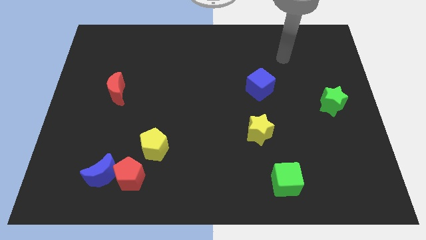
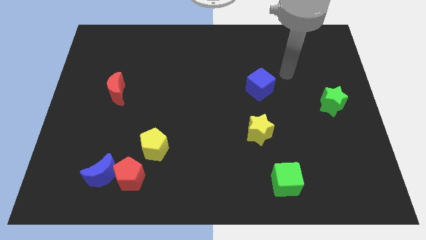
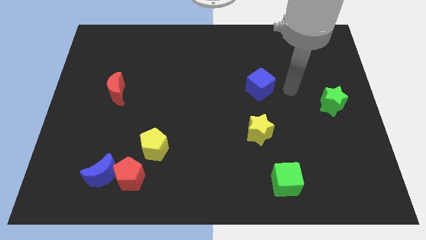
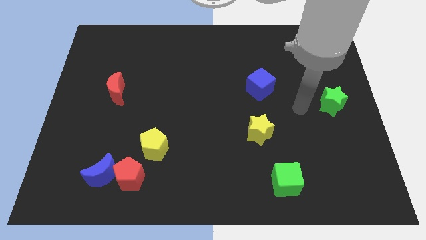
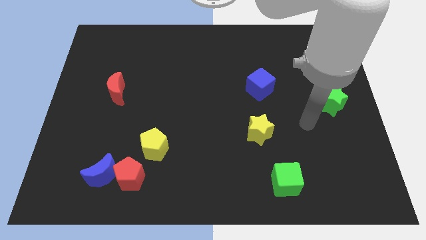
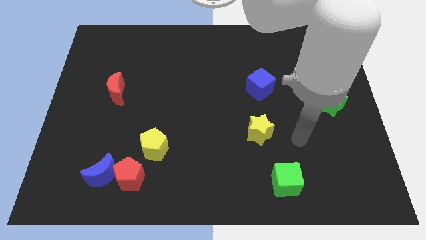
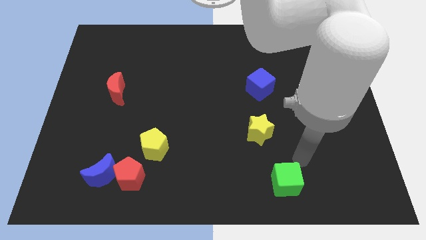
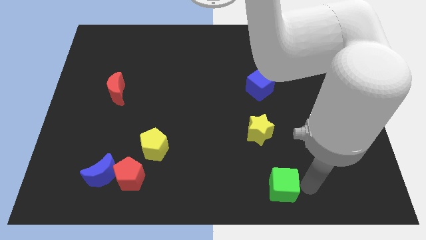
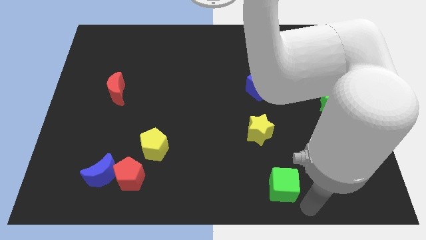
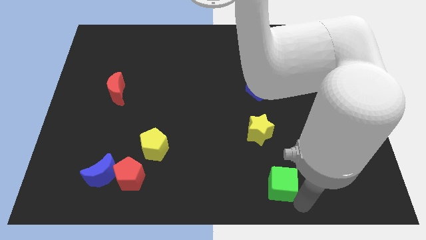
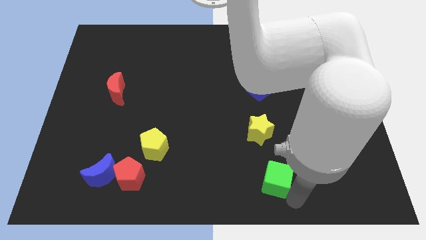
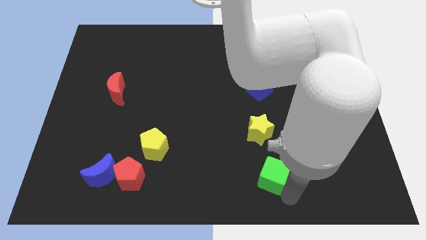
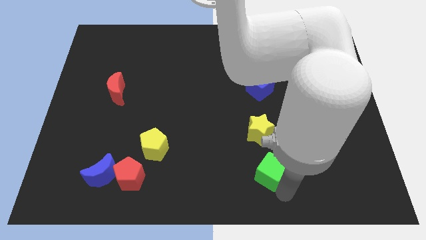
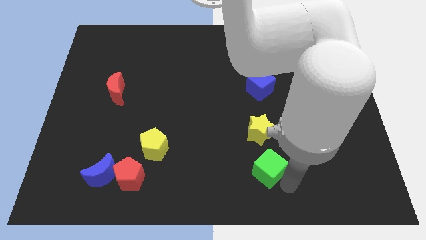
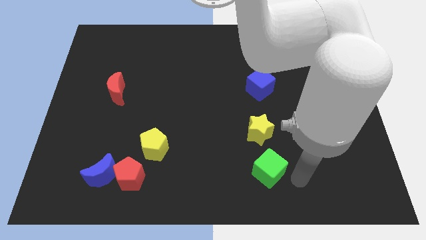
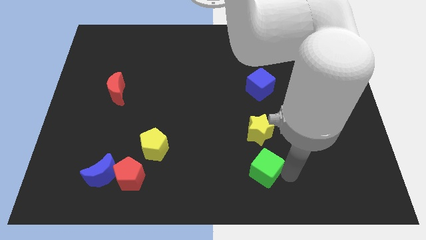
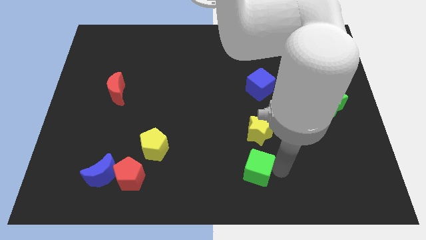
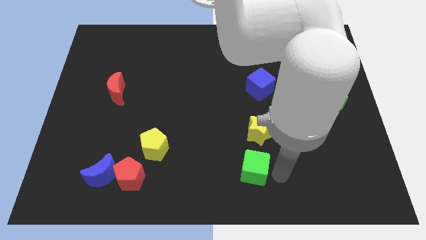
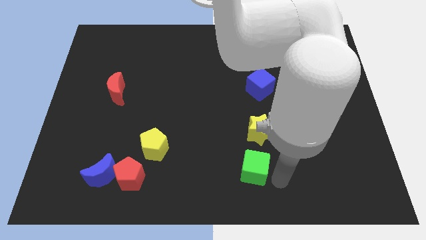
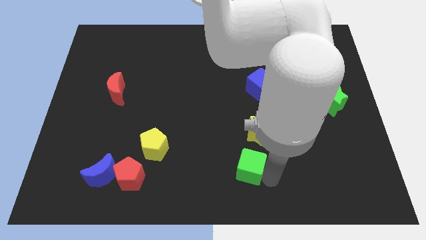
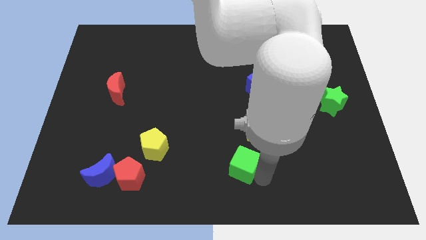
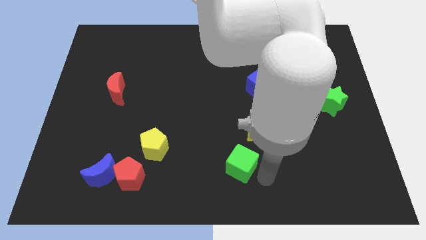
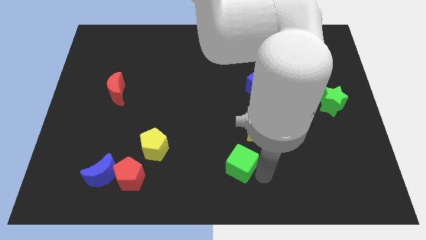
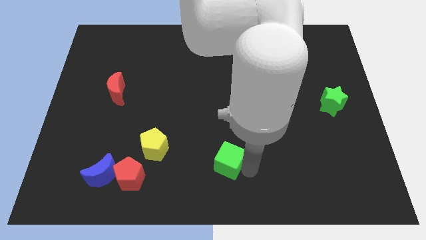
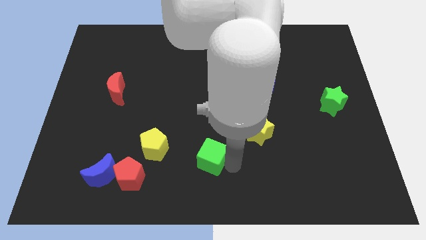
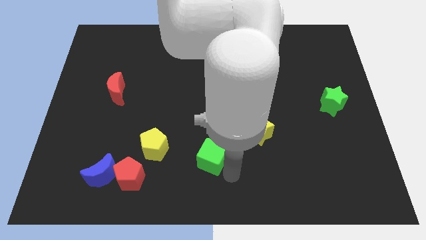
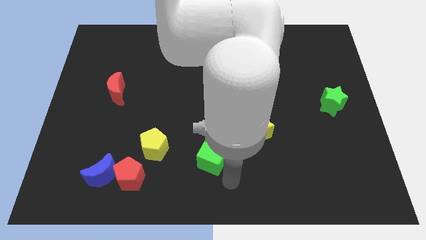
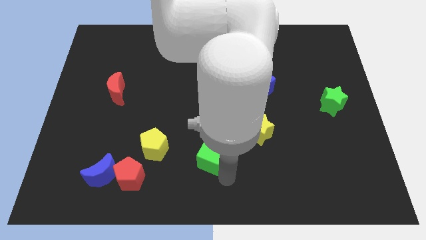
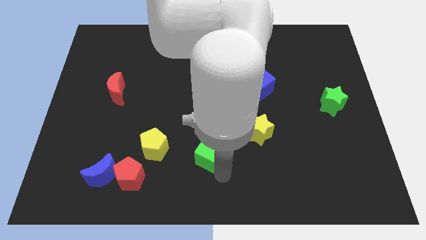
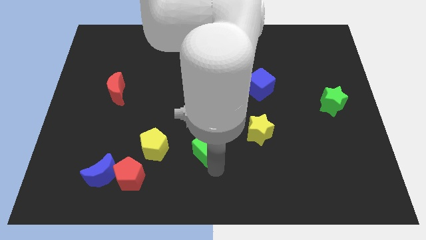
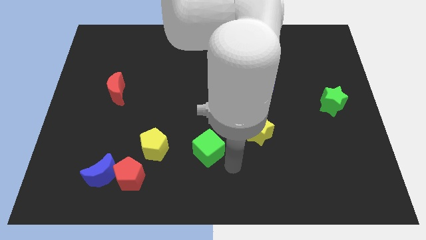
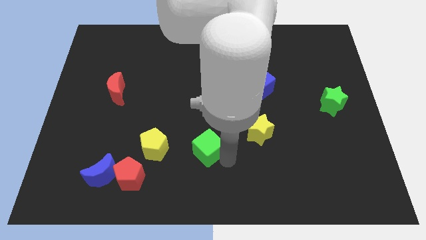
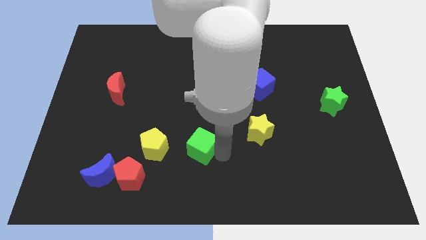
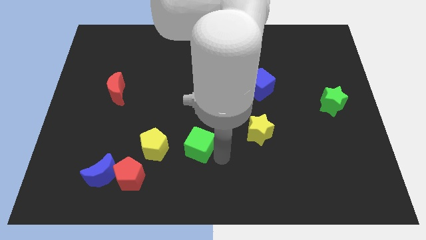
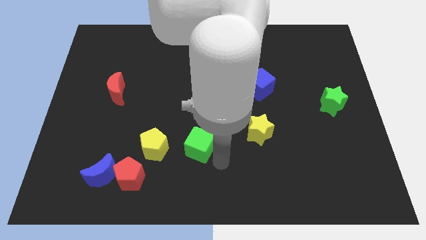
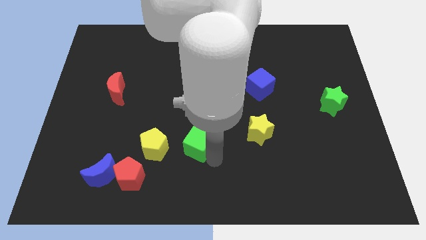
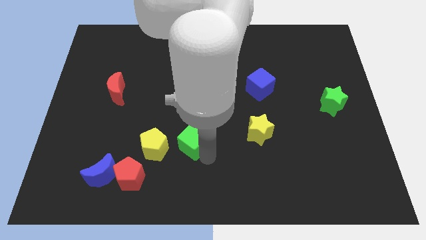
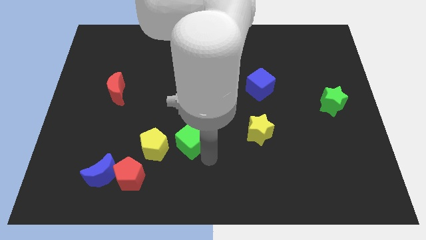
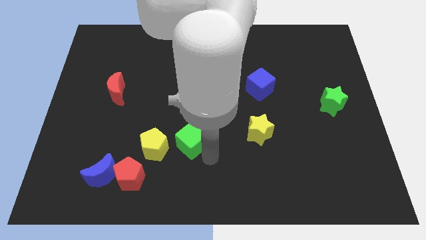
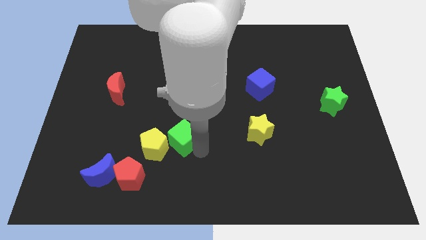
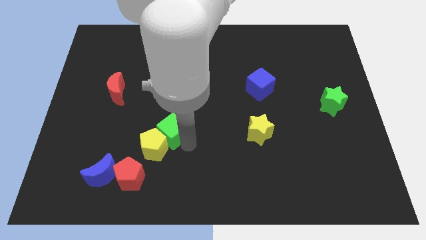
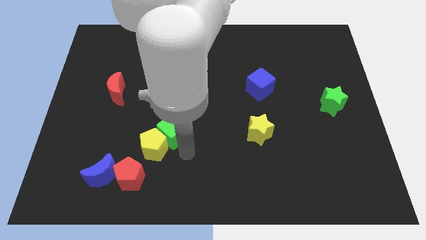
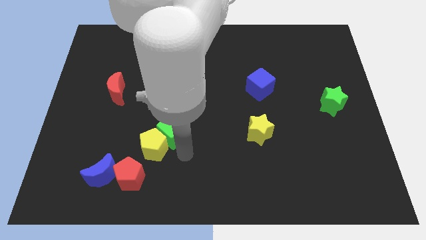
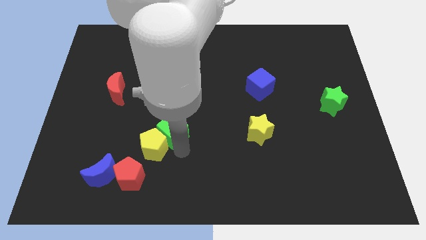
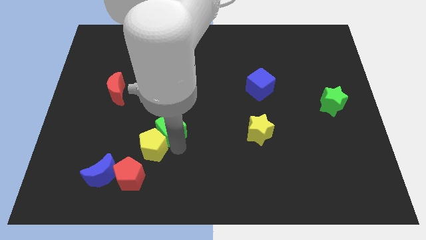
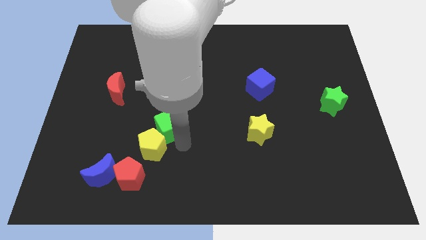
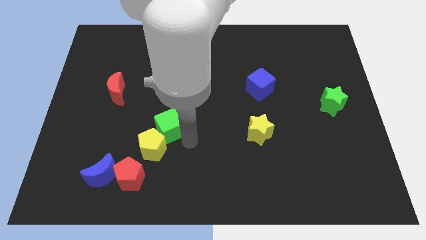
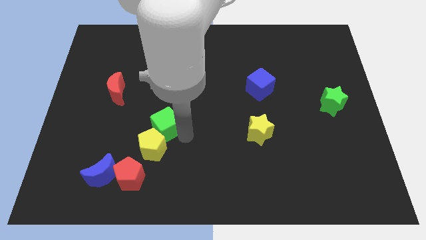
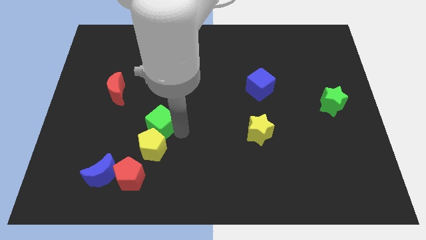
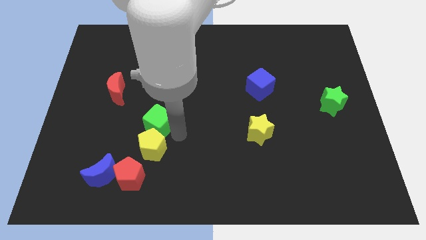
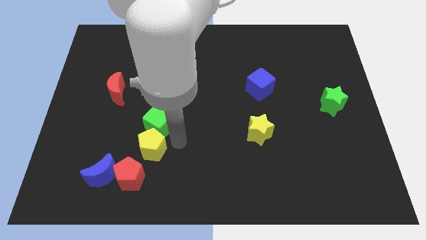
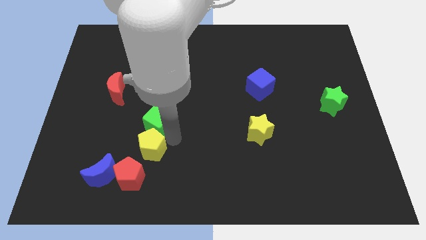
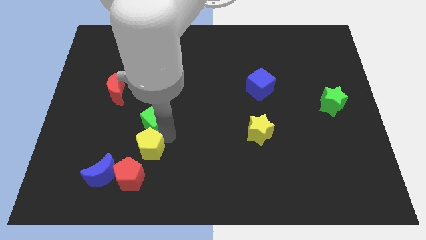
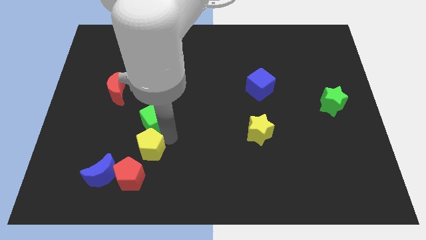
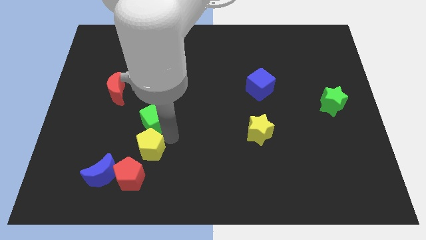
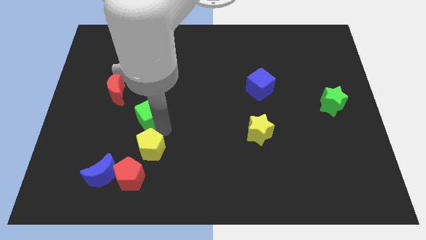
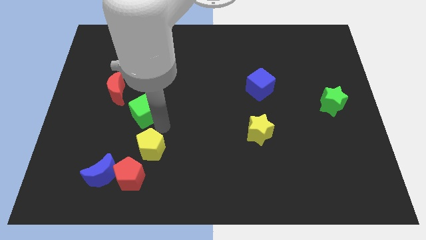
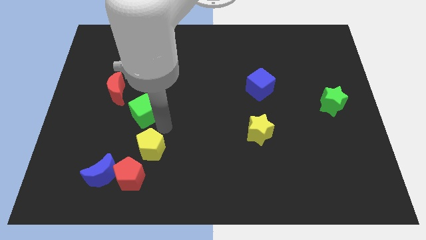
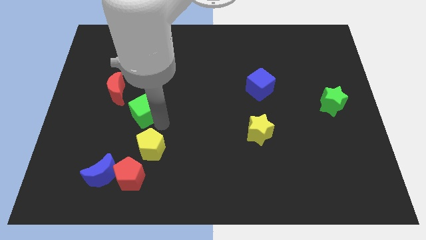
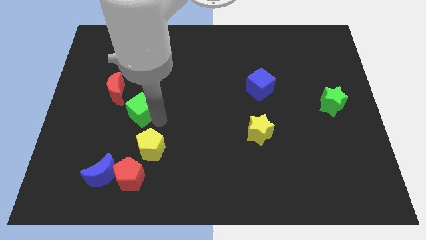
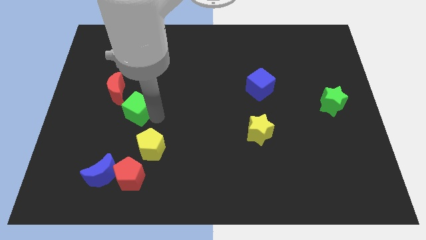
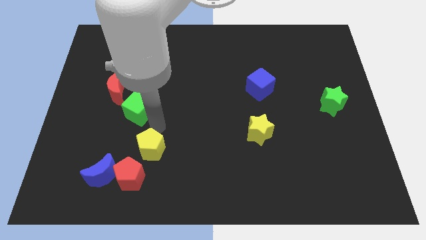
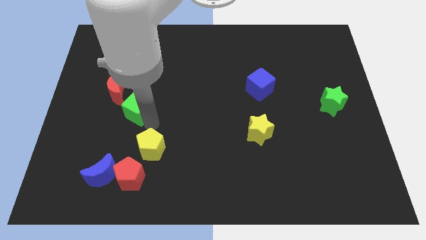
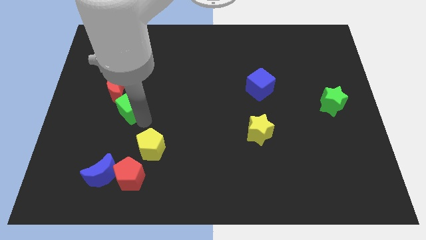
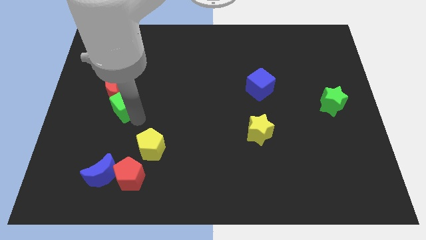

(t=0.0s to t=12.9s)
move the green cube next to the red moon
